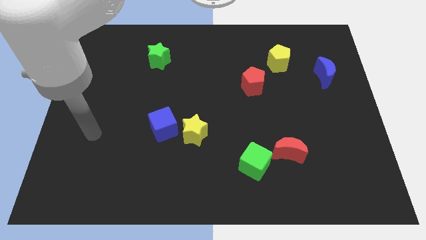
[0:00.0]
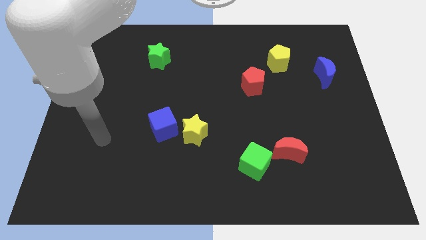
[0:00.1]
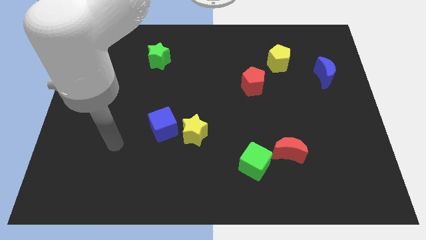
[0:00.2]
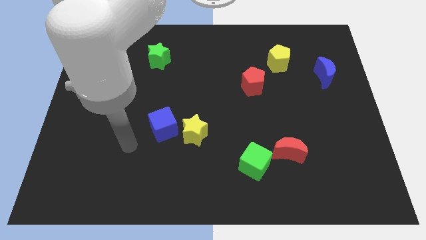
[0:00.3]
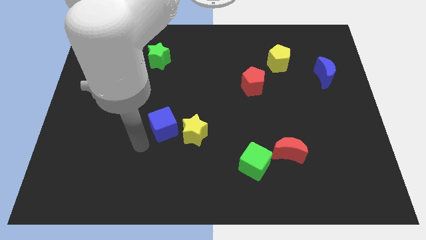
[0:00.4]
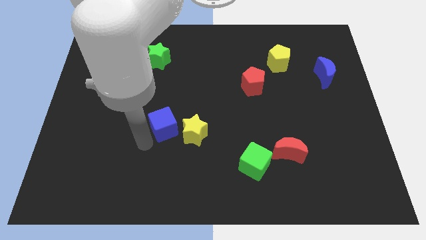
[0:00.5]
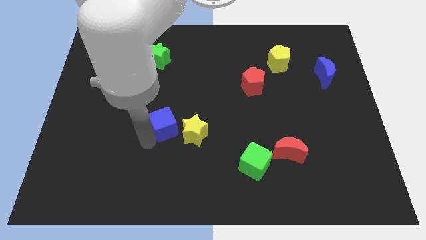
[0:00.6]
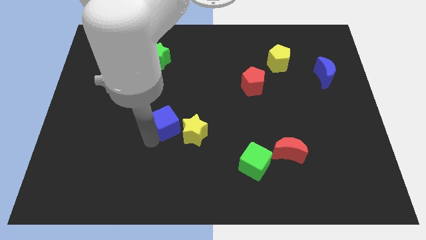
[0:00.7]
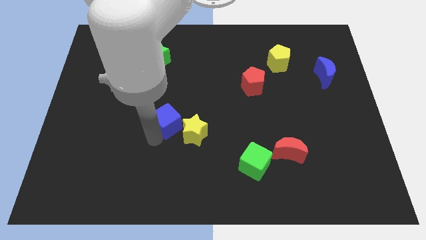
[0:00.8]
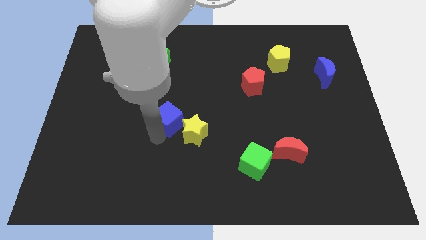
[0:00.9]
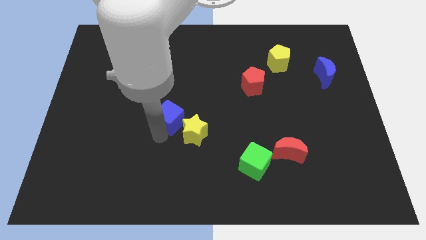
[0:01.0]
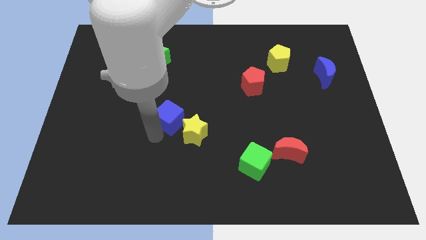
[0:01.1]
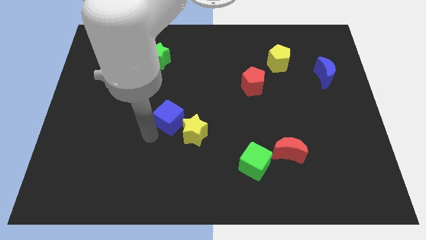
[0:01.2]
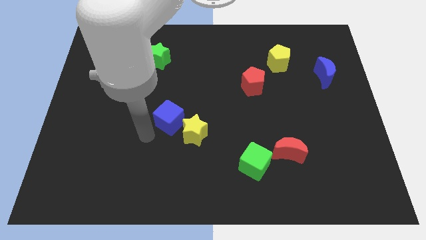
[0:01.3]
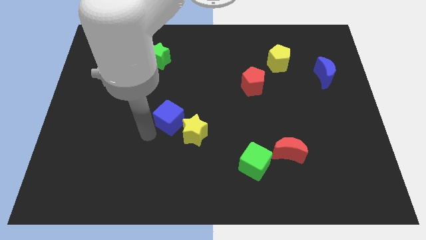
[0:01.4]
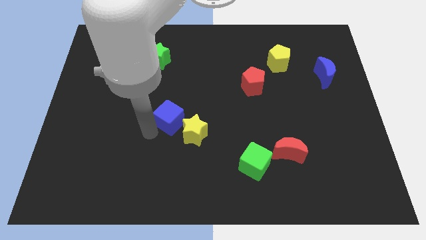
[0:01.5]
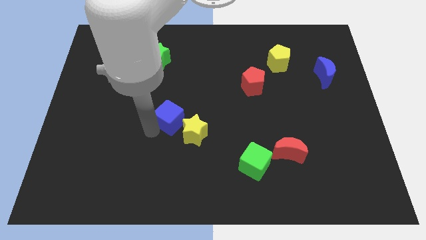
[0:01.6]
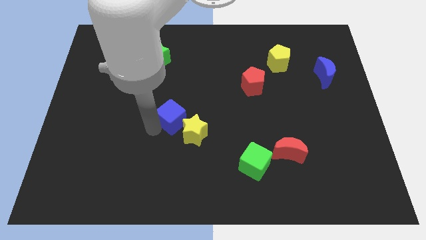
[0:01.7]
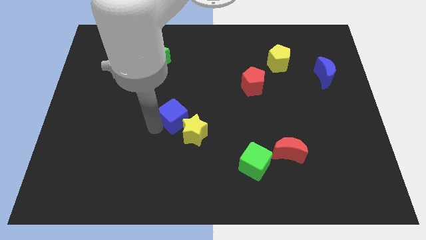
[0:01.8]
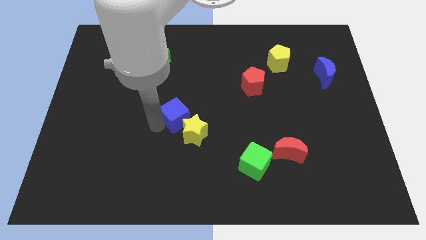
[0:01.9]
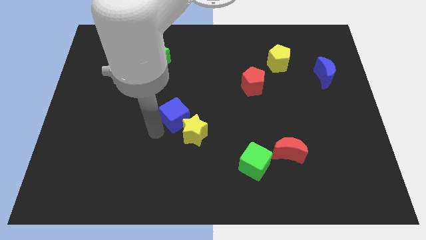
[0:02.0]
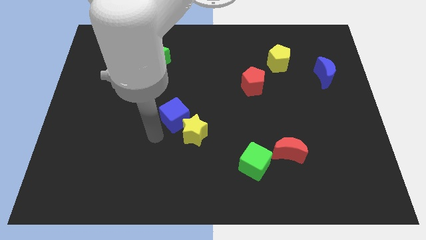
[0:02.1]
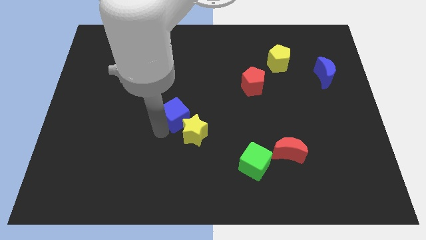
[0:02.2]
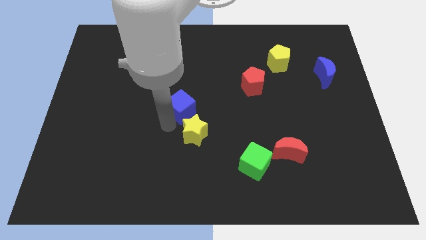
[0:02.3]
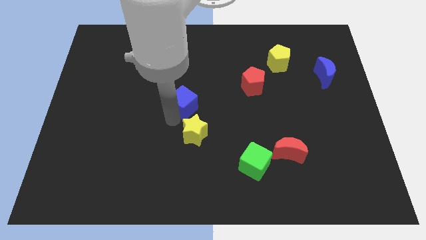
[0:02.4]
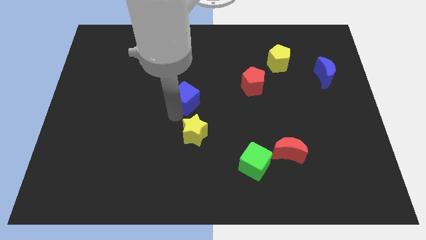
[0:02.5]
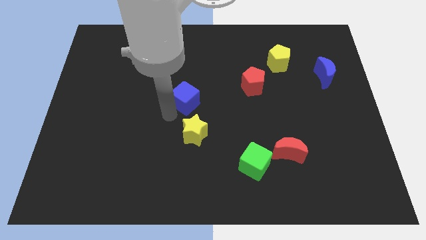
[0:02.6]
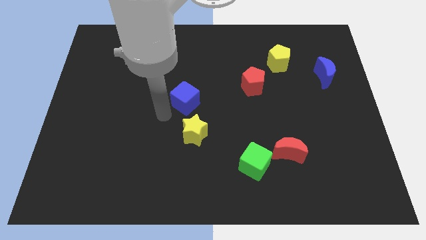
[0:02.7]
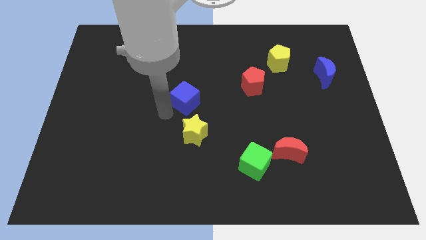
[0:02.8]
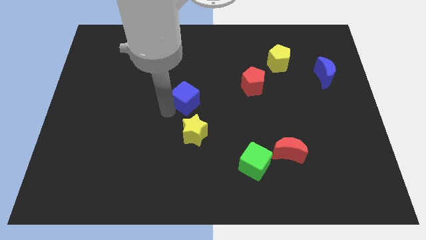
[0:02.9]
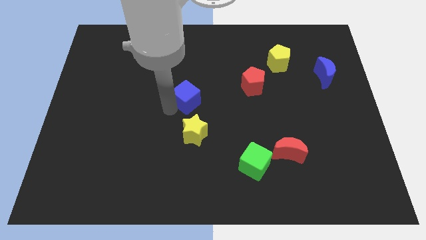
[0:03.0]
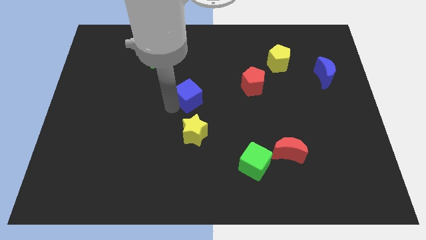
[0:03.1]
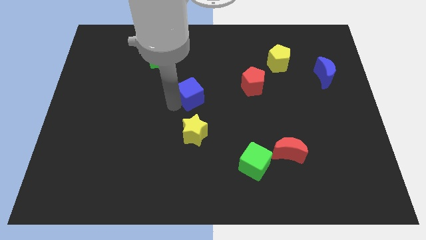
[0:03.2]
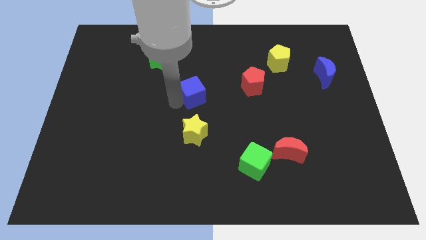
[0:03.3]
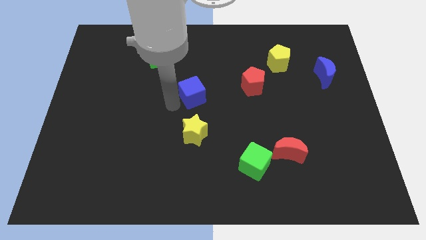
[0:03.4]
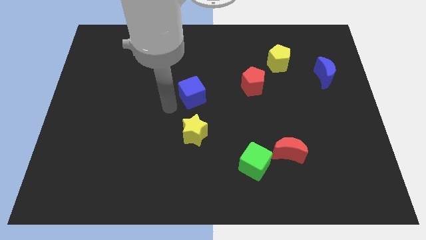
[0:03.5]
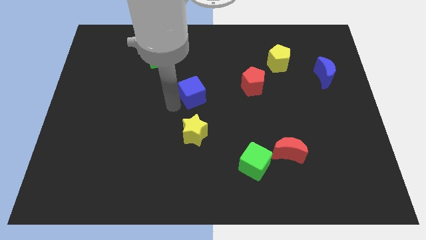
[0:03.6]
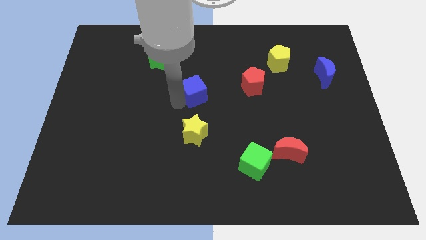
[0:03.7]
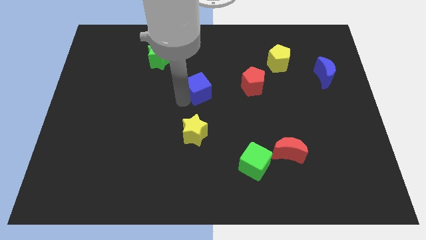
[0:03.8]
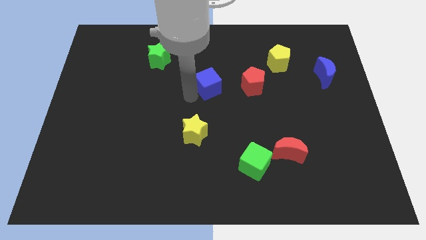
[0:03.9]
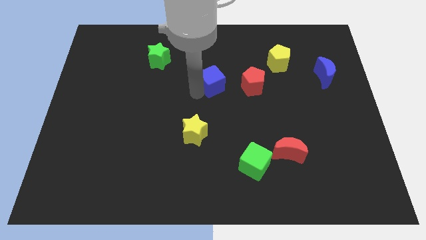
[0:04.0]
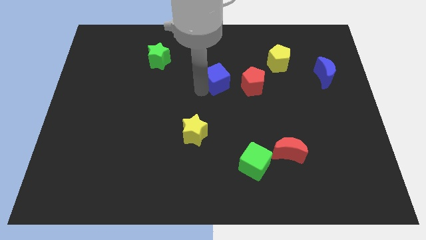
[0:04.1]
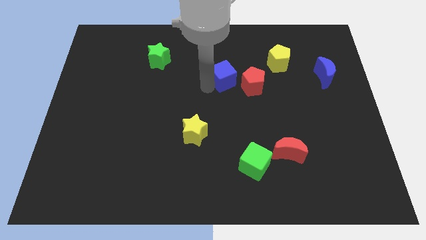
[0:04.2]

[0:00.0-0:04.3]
push the blue cube diagonally upwards and right

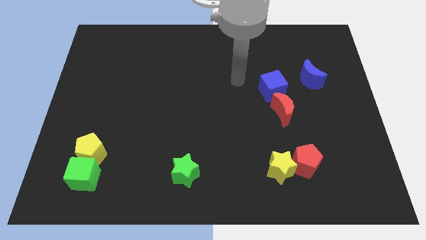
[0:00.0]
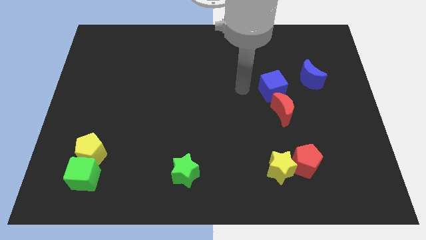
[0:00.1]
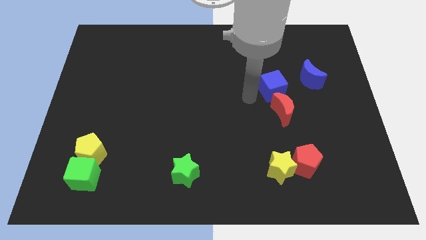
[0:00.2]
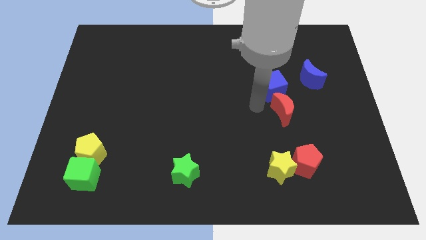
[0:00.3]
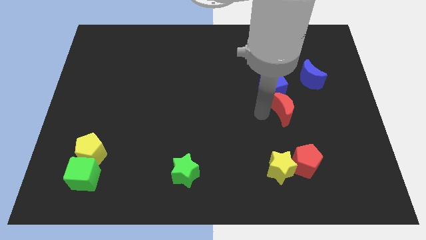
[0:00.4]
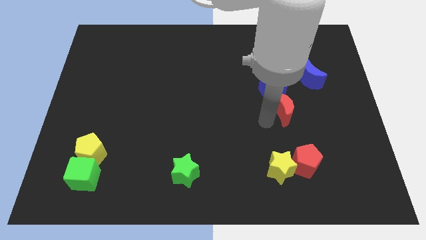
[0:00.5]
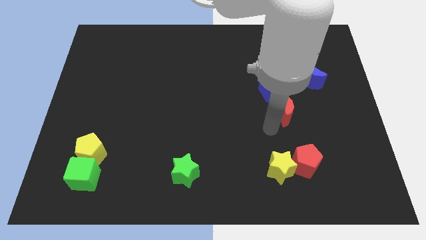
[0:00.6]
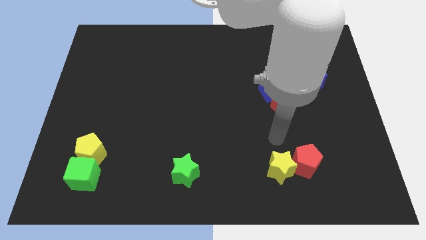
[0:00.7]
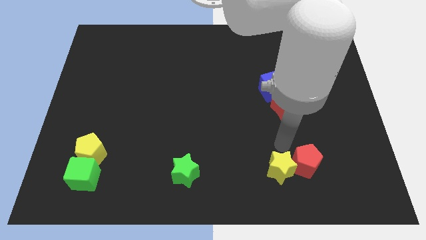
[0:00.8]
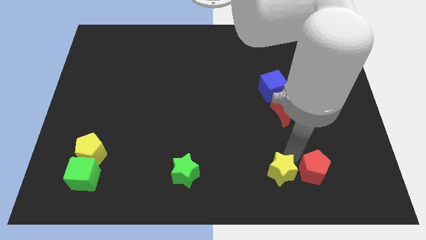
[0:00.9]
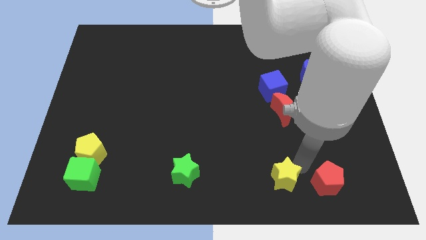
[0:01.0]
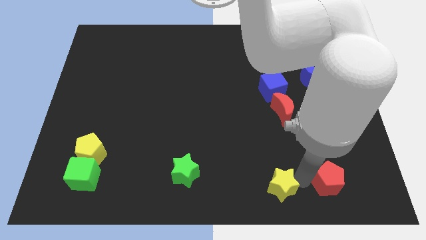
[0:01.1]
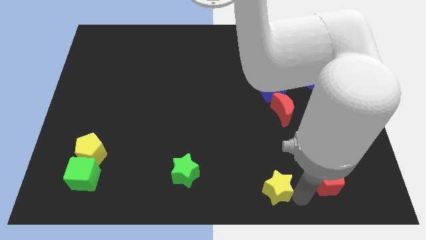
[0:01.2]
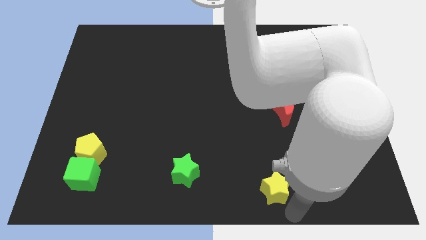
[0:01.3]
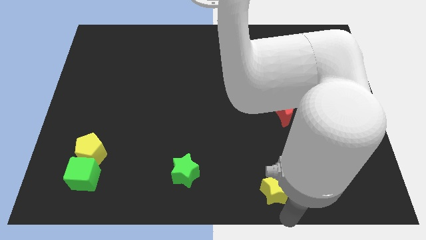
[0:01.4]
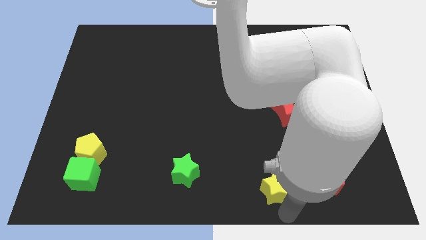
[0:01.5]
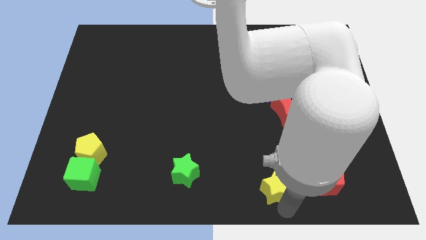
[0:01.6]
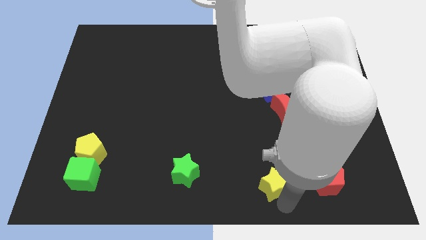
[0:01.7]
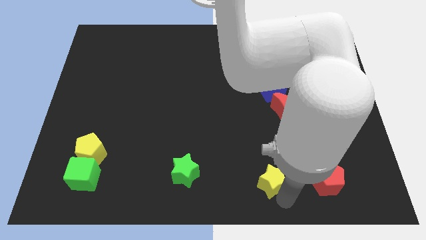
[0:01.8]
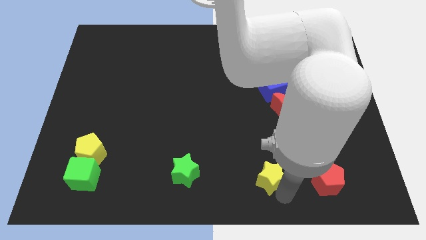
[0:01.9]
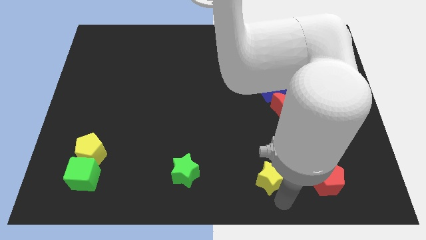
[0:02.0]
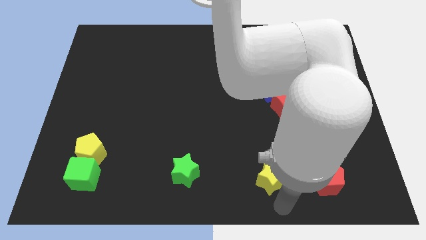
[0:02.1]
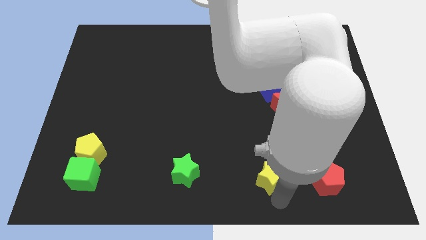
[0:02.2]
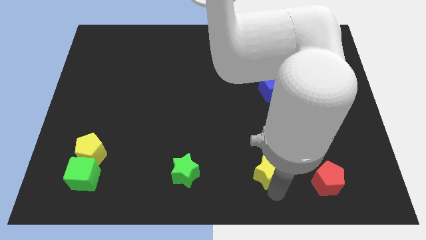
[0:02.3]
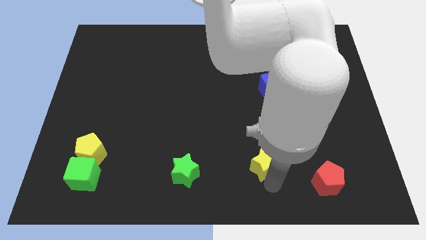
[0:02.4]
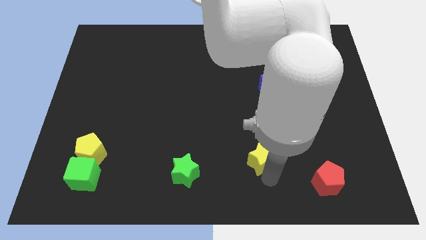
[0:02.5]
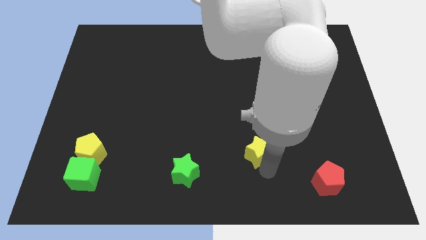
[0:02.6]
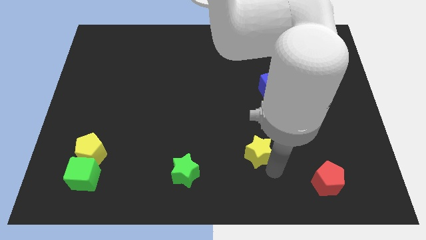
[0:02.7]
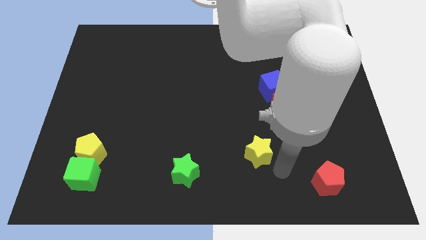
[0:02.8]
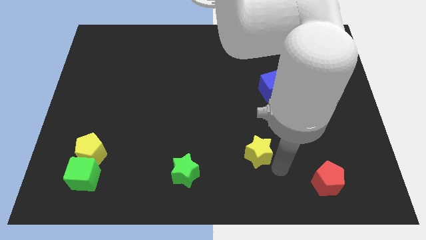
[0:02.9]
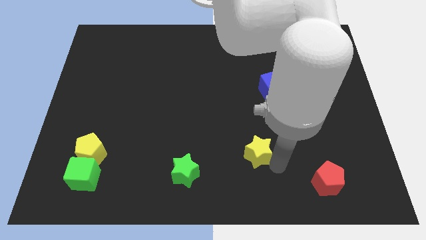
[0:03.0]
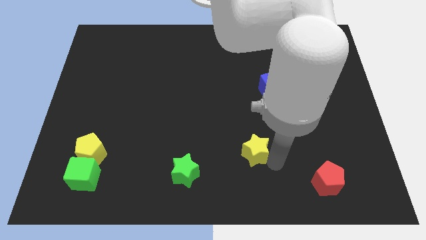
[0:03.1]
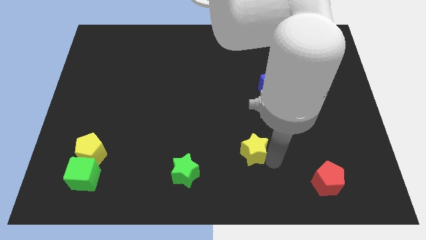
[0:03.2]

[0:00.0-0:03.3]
slide the yellow star upwards and to the left a little

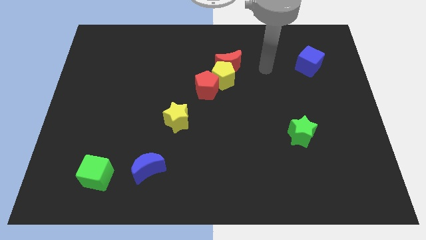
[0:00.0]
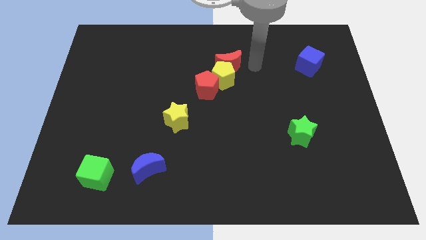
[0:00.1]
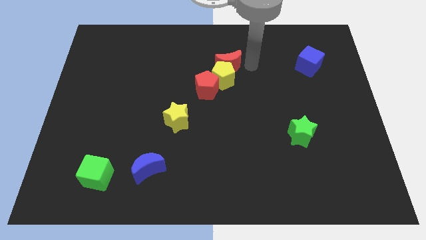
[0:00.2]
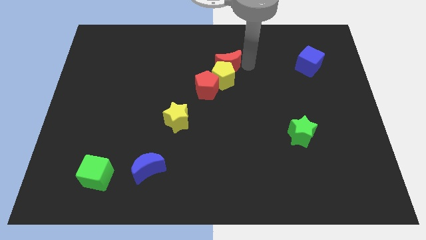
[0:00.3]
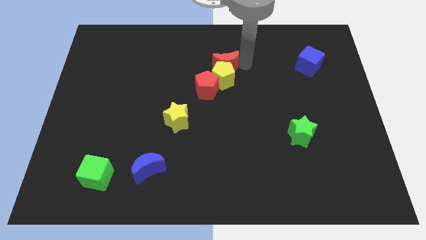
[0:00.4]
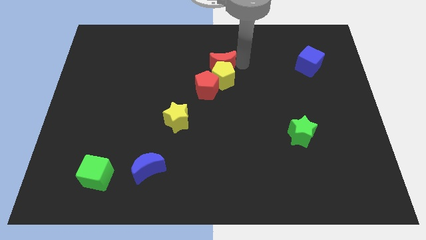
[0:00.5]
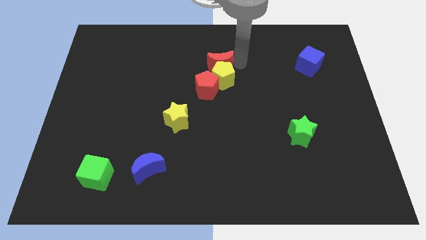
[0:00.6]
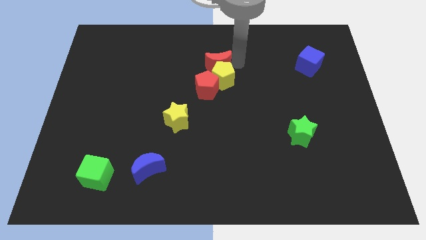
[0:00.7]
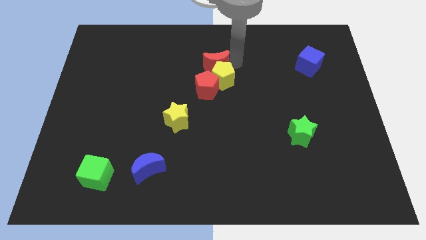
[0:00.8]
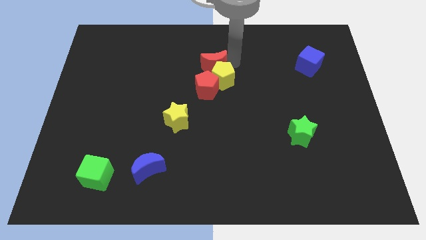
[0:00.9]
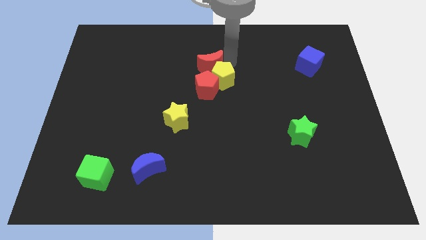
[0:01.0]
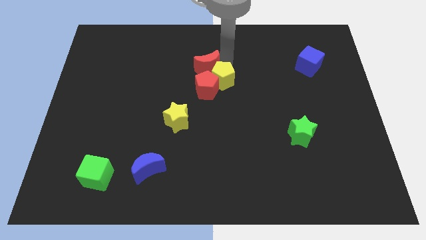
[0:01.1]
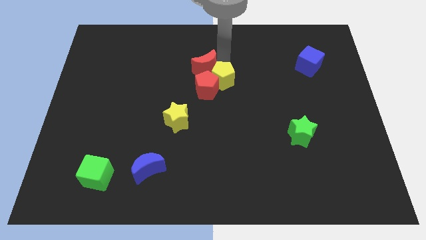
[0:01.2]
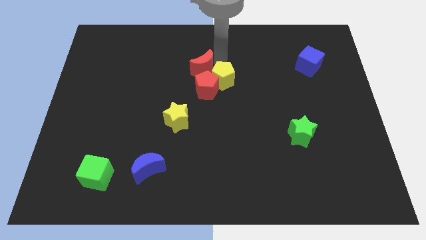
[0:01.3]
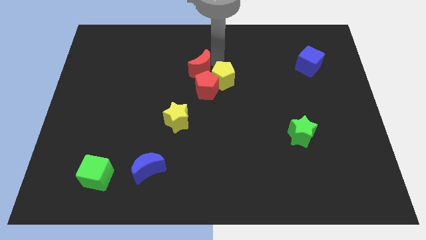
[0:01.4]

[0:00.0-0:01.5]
slightly slide the red moon to the left
